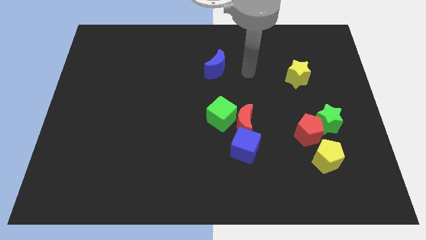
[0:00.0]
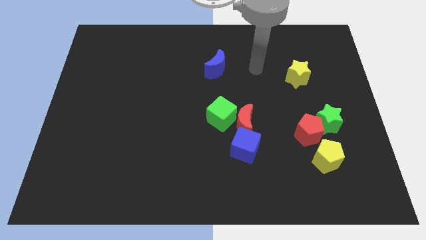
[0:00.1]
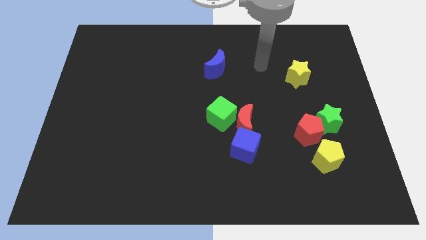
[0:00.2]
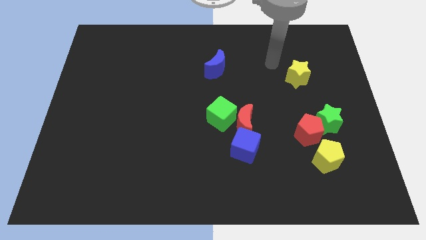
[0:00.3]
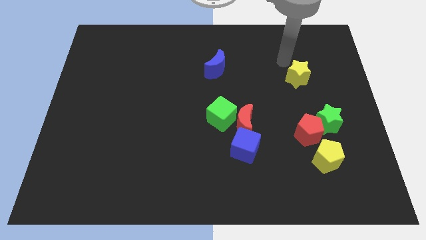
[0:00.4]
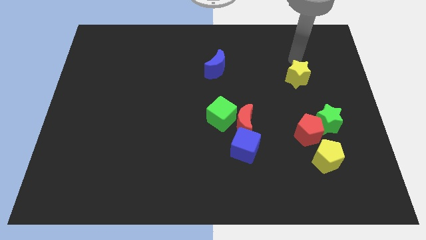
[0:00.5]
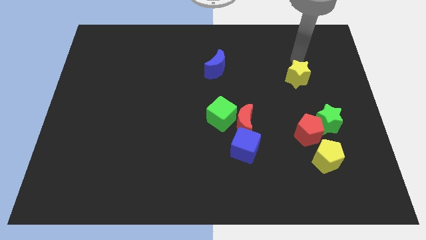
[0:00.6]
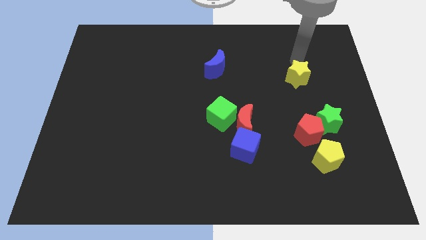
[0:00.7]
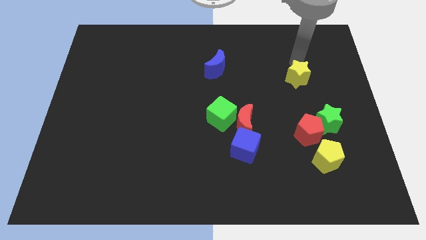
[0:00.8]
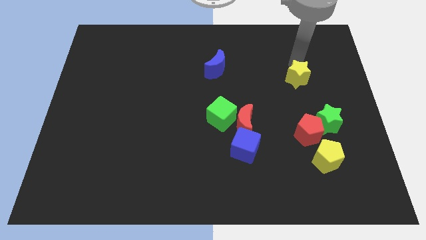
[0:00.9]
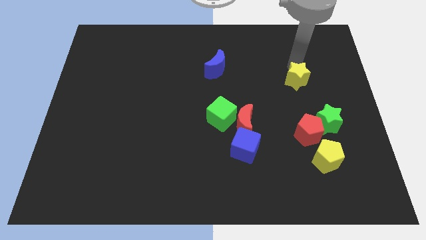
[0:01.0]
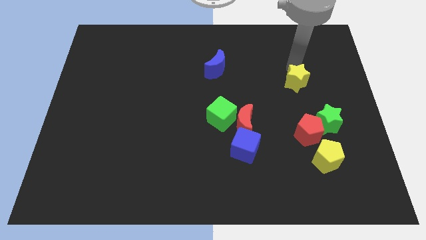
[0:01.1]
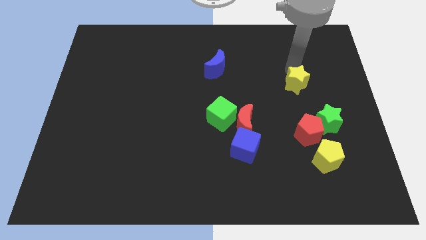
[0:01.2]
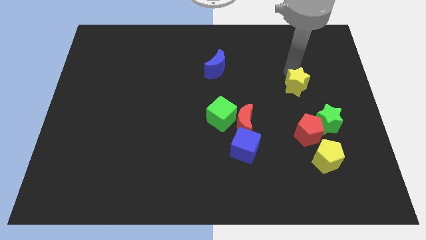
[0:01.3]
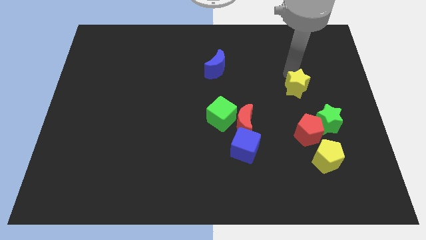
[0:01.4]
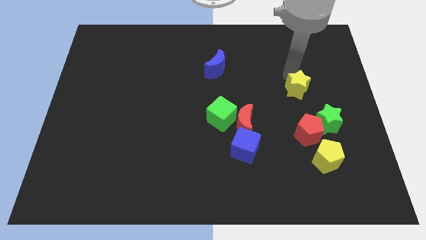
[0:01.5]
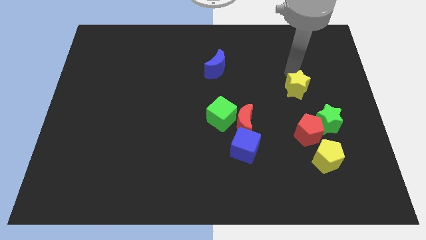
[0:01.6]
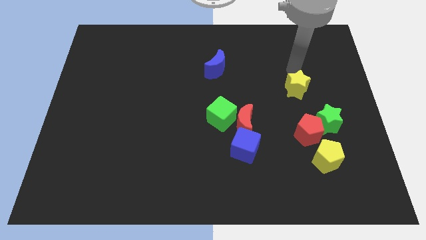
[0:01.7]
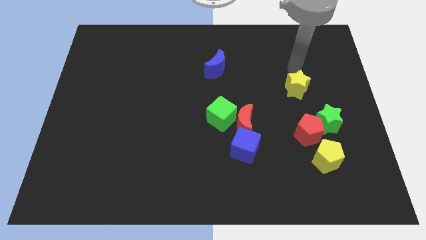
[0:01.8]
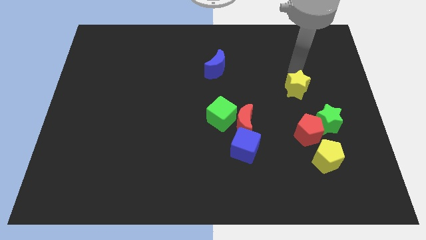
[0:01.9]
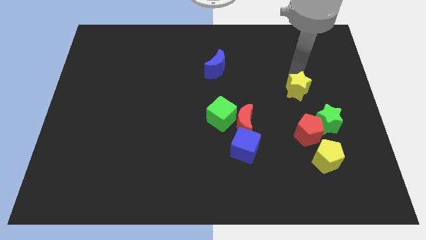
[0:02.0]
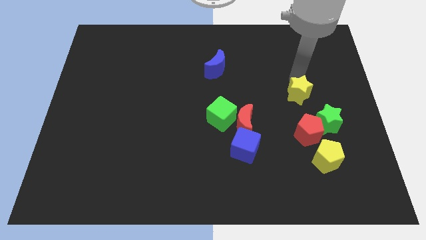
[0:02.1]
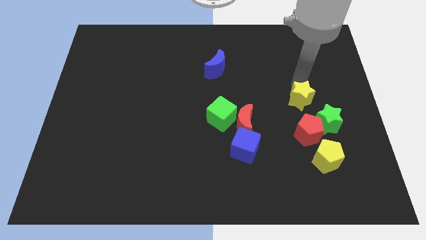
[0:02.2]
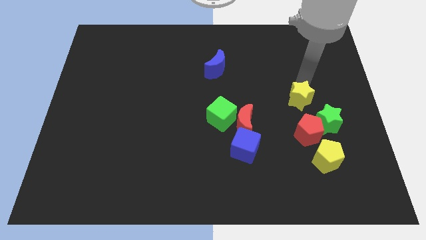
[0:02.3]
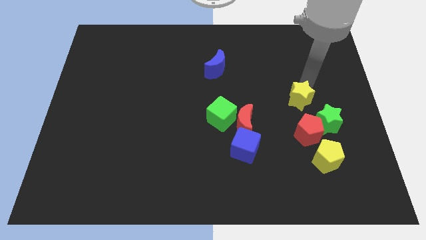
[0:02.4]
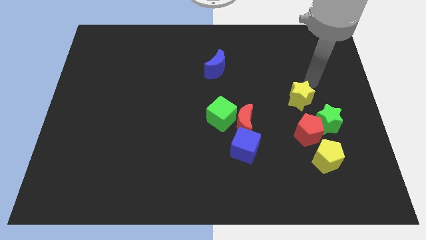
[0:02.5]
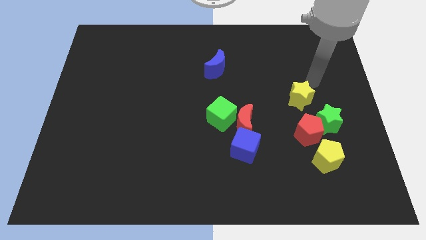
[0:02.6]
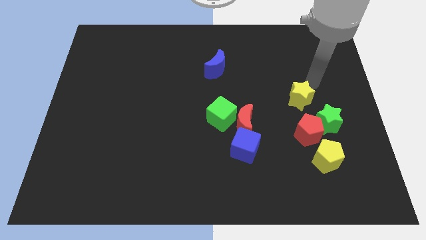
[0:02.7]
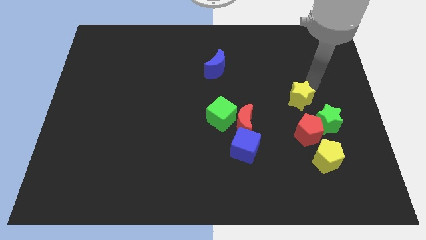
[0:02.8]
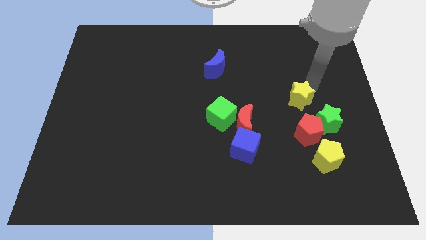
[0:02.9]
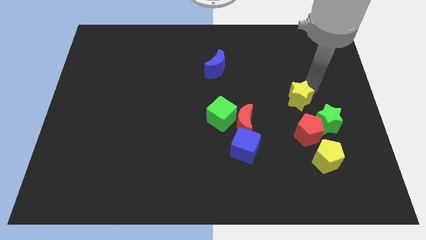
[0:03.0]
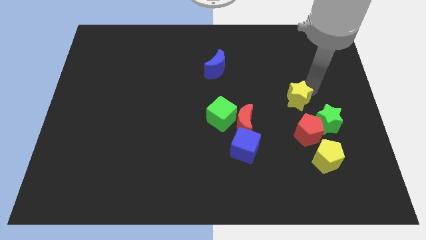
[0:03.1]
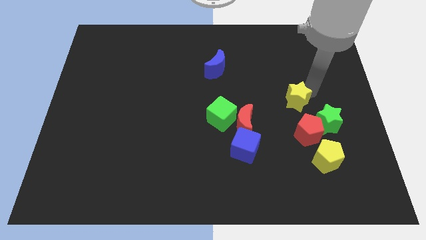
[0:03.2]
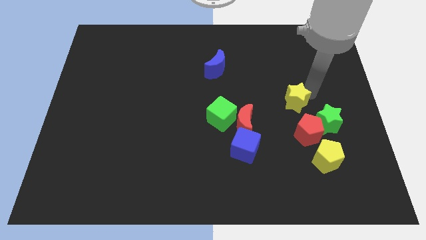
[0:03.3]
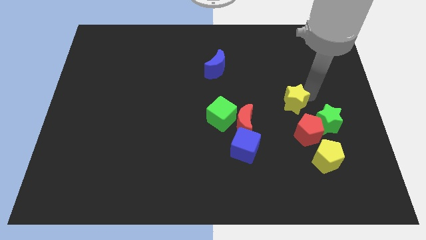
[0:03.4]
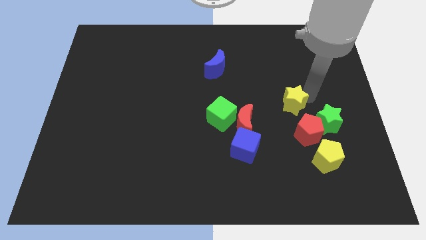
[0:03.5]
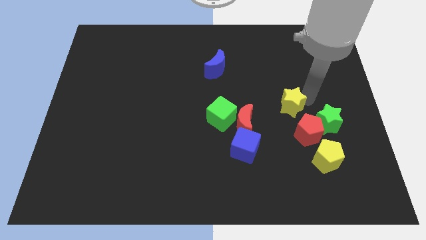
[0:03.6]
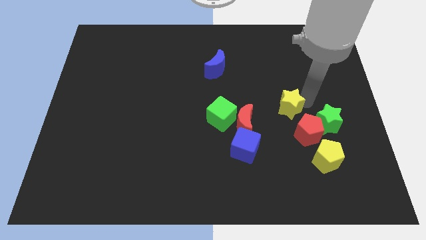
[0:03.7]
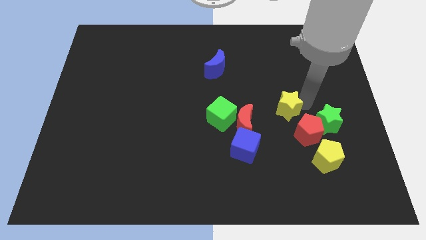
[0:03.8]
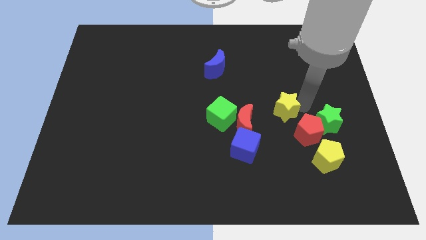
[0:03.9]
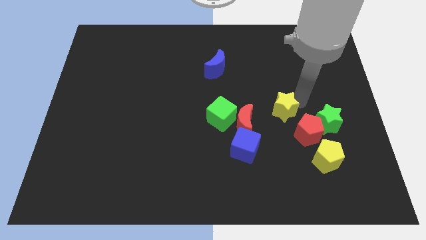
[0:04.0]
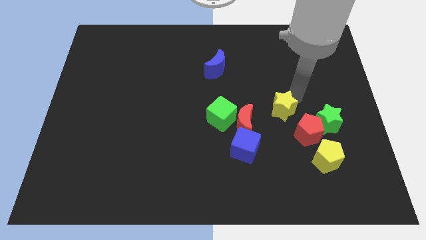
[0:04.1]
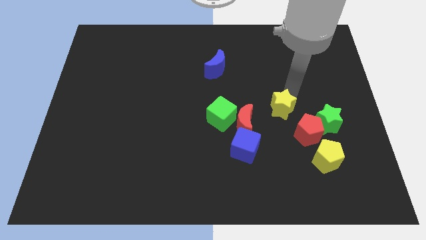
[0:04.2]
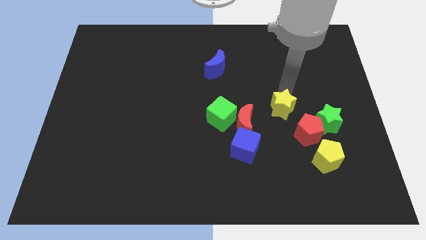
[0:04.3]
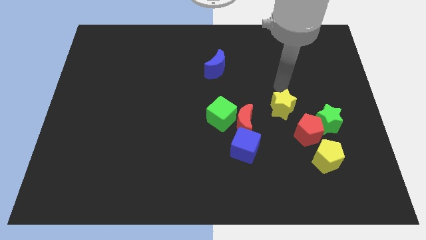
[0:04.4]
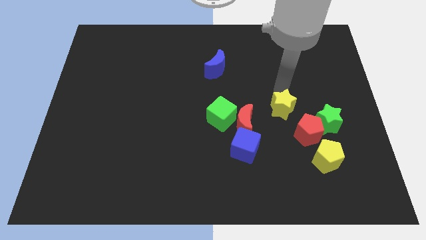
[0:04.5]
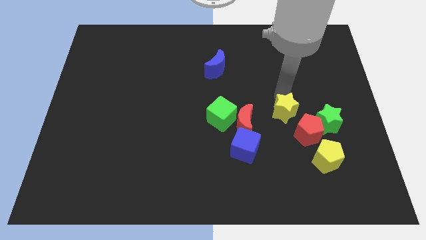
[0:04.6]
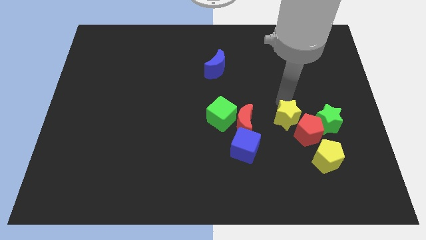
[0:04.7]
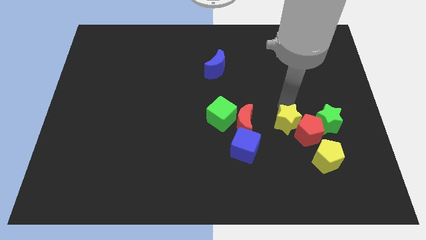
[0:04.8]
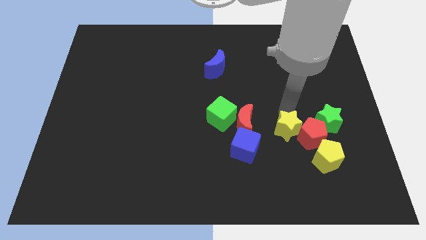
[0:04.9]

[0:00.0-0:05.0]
slide the yellow star to the right of the blue cube

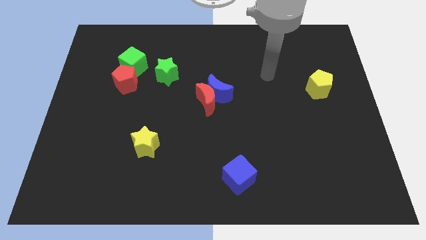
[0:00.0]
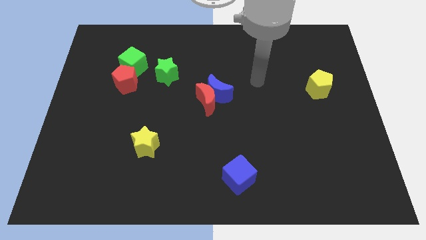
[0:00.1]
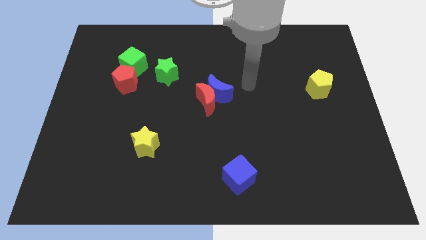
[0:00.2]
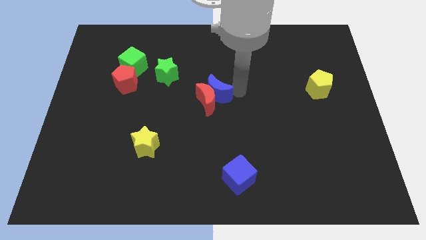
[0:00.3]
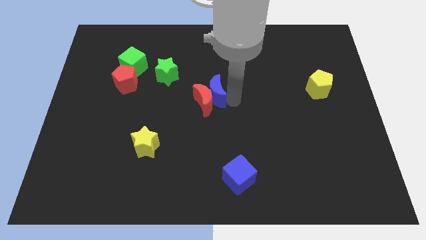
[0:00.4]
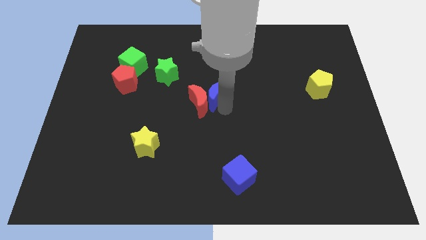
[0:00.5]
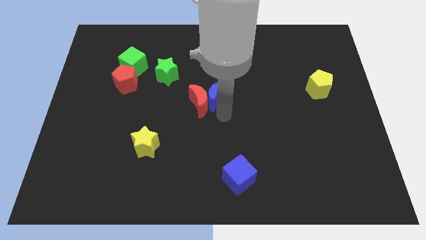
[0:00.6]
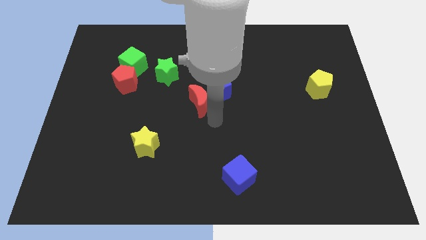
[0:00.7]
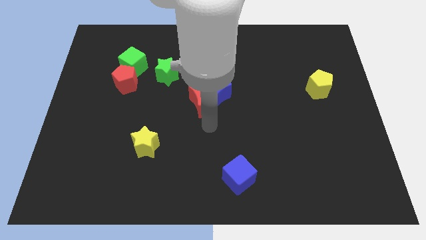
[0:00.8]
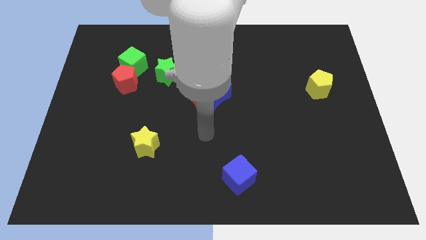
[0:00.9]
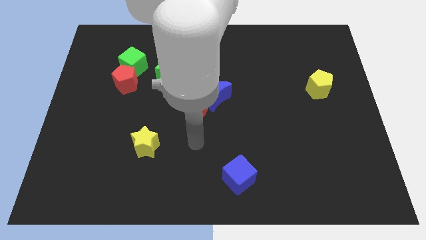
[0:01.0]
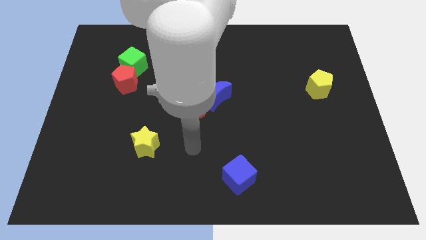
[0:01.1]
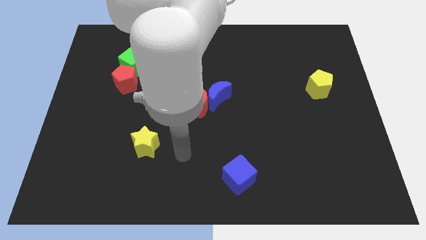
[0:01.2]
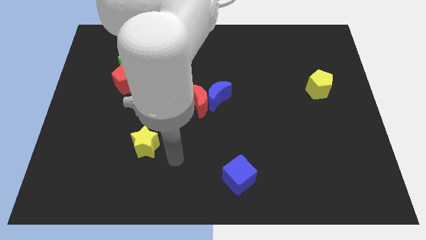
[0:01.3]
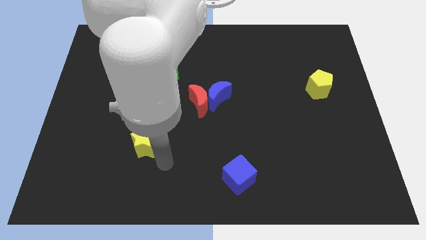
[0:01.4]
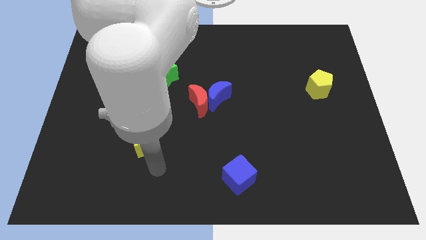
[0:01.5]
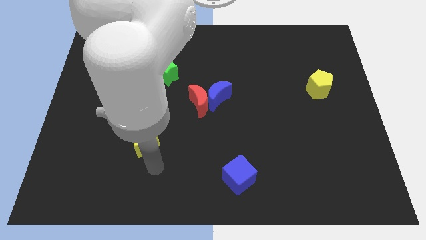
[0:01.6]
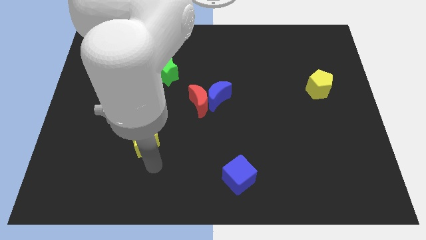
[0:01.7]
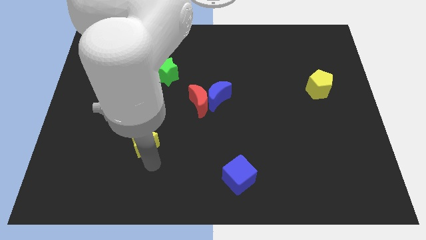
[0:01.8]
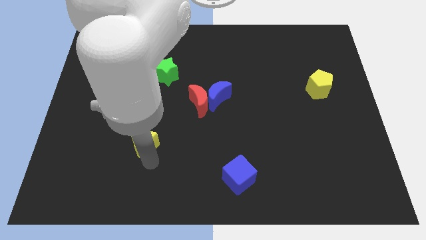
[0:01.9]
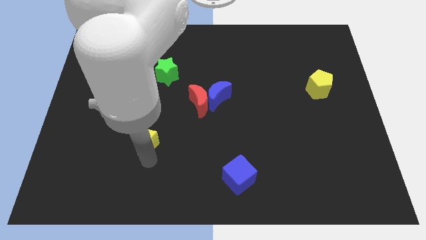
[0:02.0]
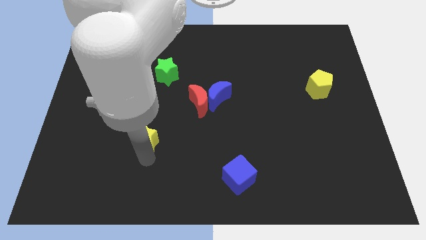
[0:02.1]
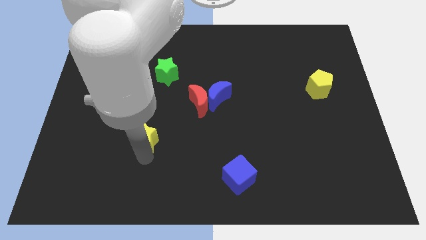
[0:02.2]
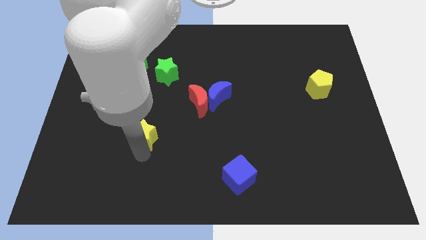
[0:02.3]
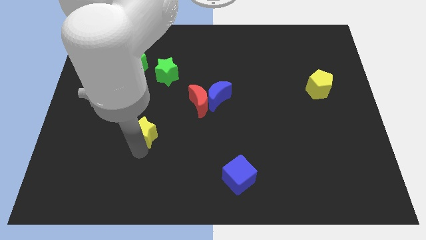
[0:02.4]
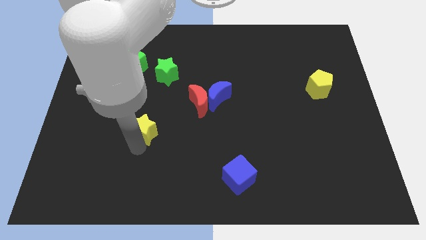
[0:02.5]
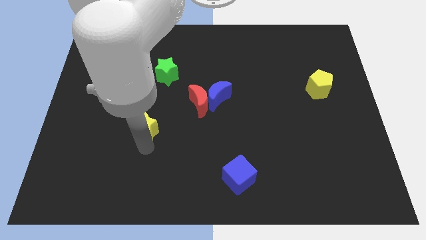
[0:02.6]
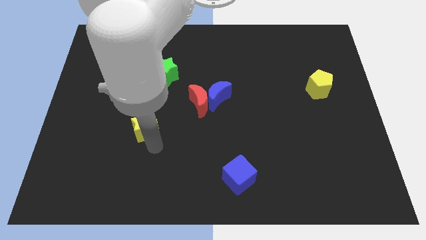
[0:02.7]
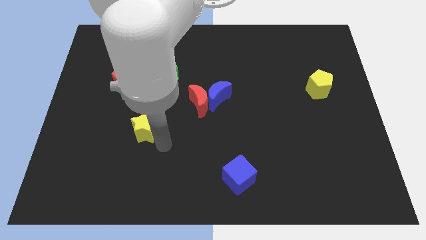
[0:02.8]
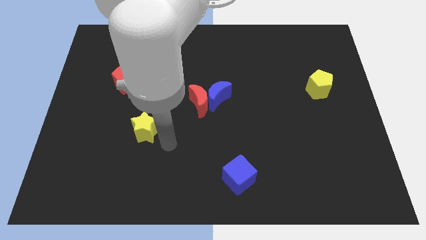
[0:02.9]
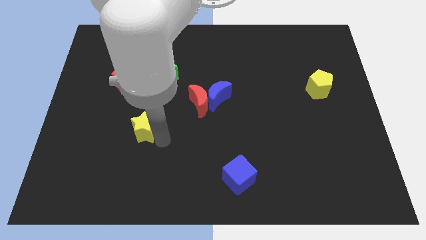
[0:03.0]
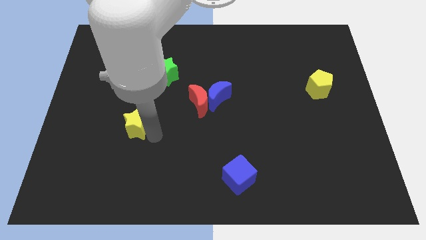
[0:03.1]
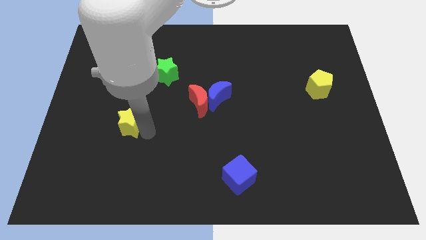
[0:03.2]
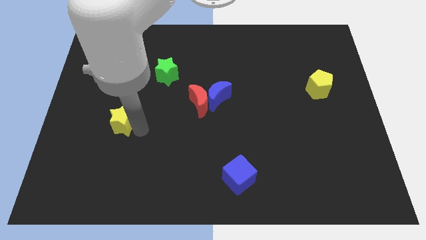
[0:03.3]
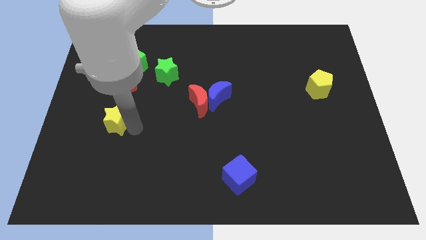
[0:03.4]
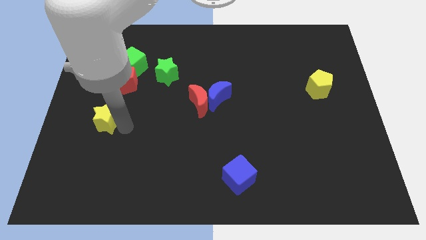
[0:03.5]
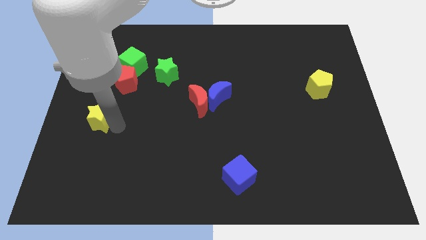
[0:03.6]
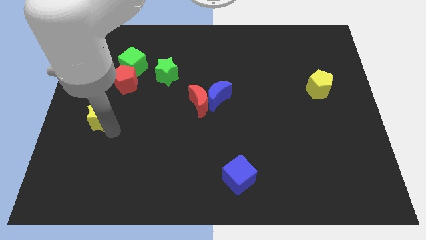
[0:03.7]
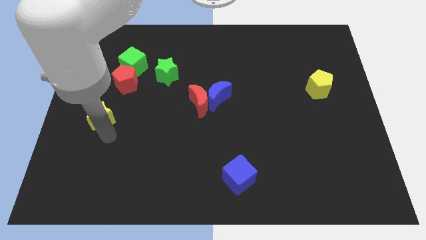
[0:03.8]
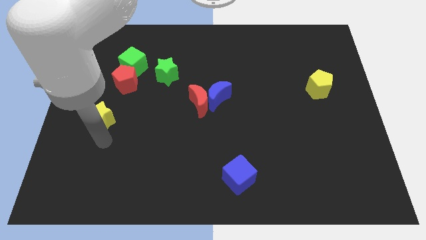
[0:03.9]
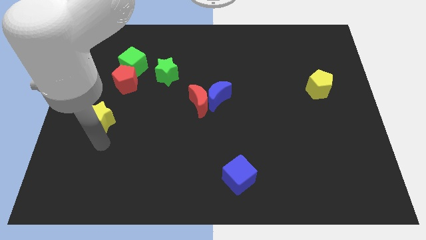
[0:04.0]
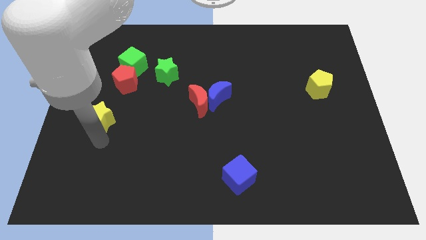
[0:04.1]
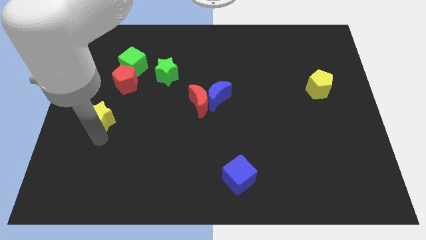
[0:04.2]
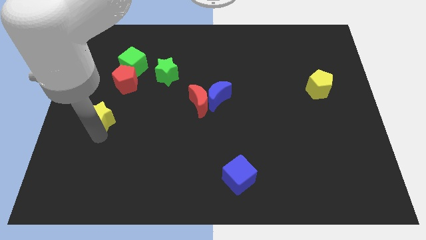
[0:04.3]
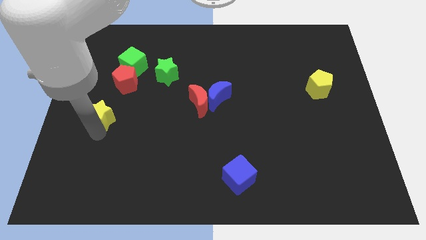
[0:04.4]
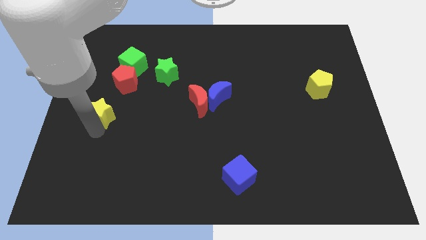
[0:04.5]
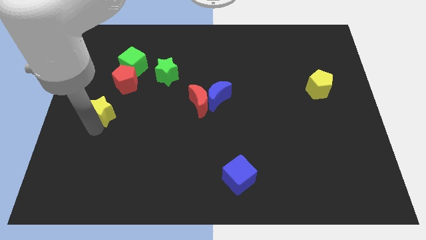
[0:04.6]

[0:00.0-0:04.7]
push the yellow star to the bottom left of the red pentagon
